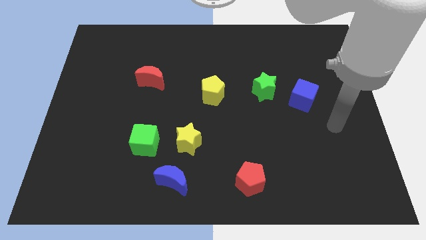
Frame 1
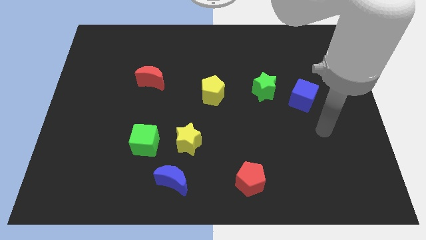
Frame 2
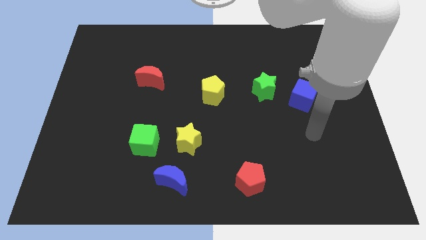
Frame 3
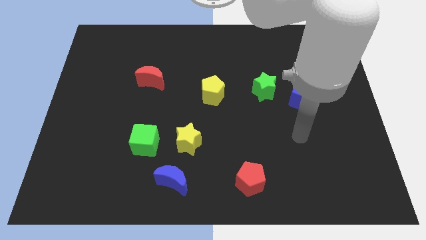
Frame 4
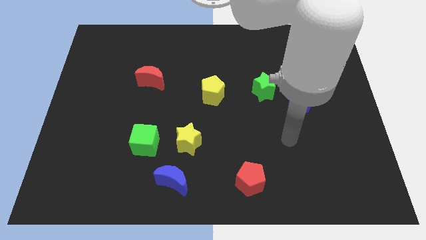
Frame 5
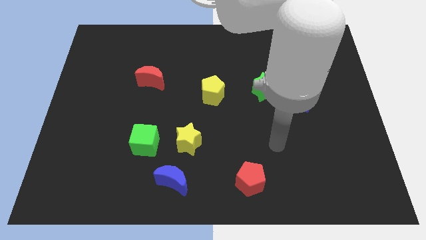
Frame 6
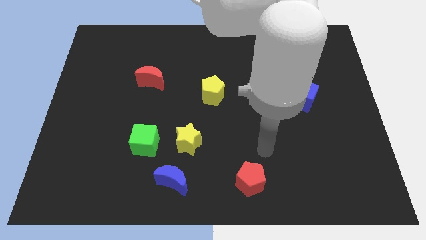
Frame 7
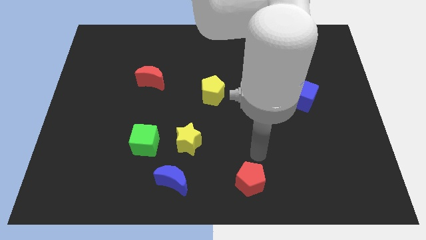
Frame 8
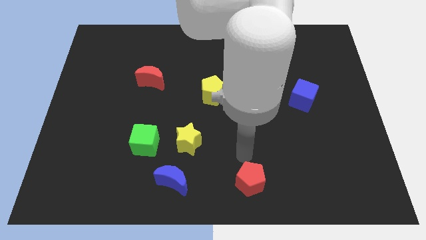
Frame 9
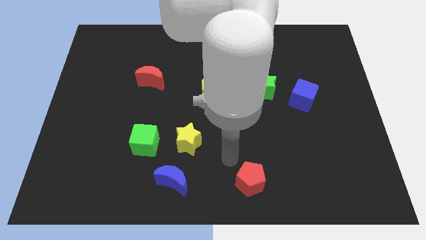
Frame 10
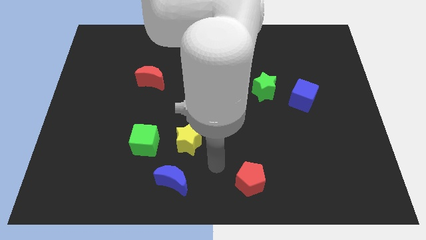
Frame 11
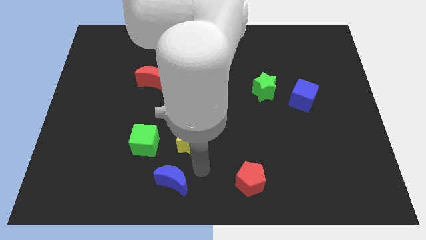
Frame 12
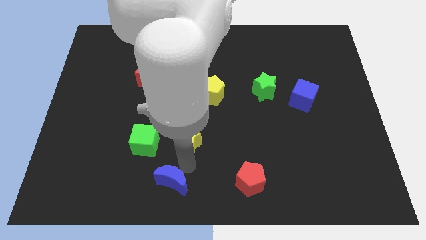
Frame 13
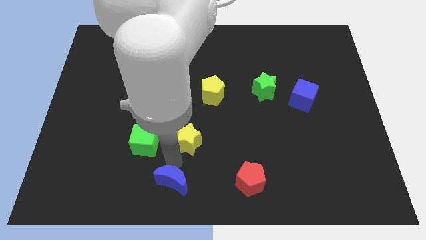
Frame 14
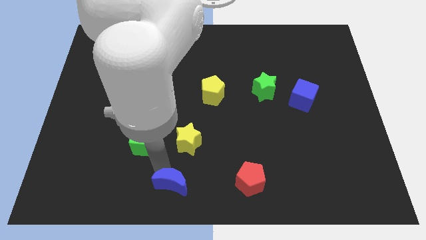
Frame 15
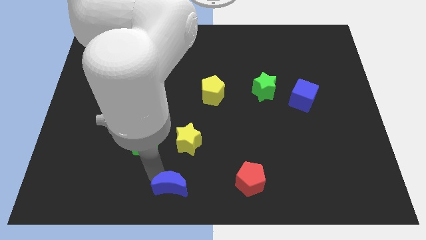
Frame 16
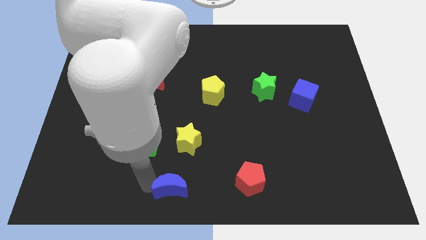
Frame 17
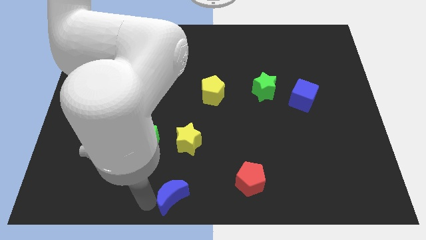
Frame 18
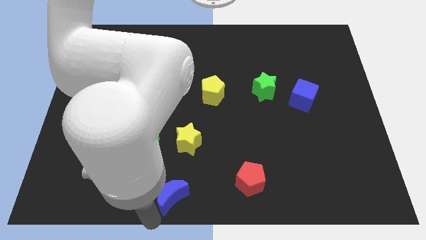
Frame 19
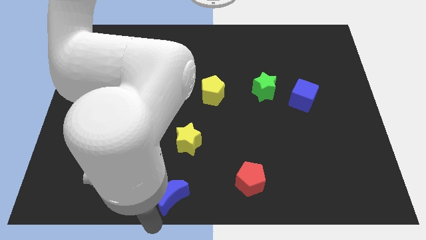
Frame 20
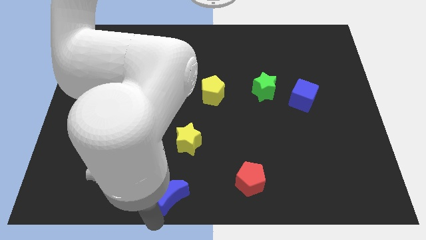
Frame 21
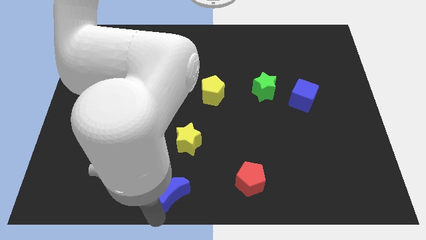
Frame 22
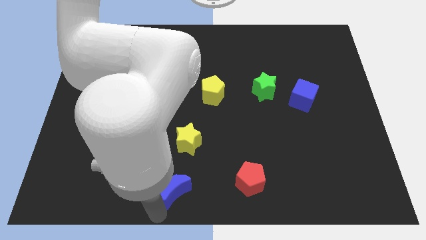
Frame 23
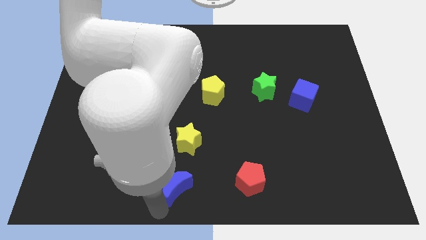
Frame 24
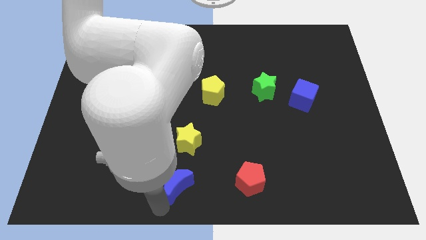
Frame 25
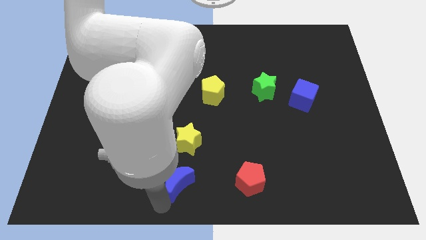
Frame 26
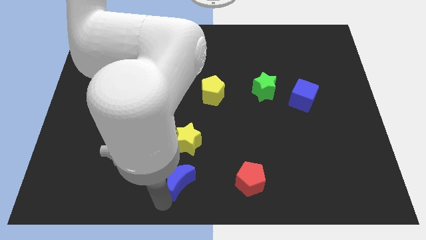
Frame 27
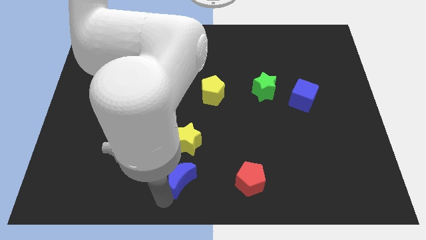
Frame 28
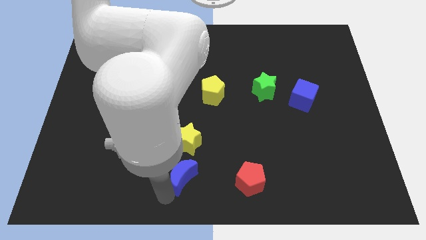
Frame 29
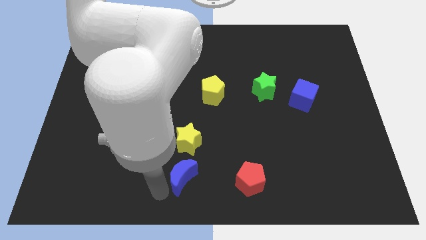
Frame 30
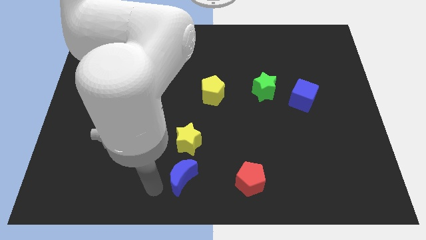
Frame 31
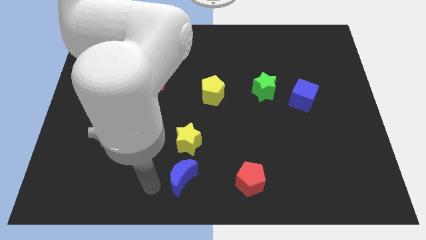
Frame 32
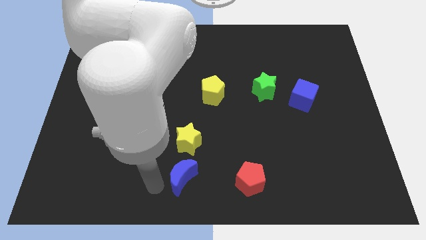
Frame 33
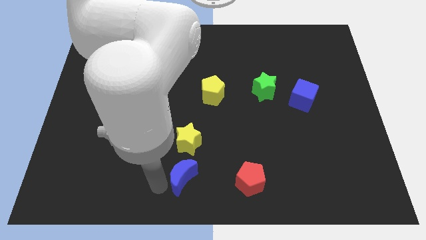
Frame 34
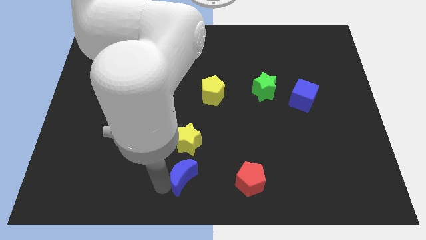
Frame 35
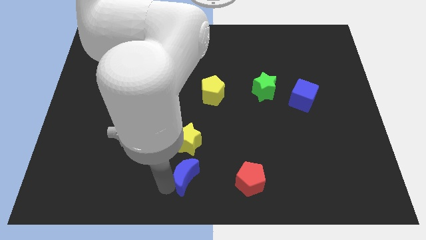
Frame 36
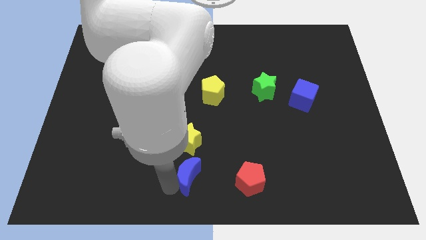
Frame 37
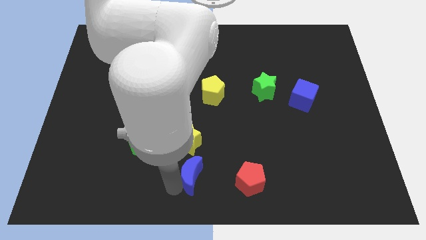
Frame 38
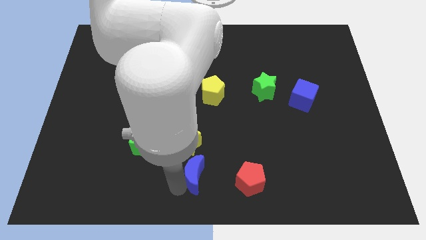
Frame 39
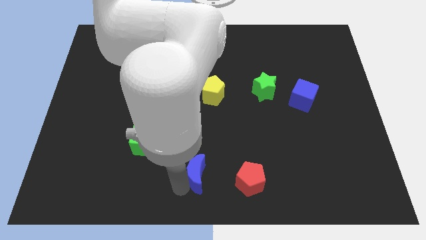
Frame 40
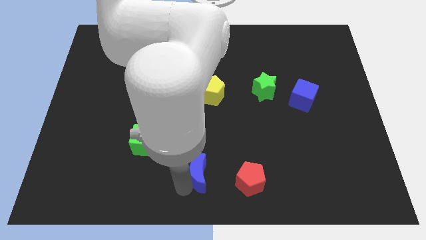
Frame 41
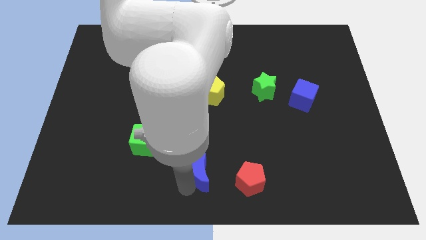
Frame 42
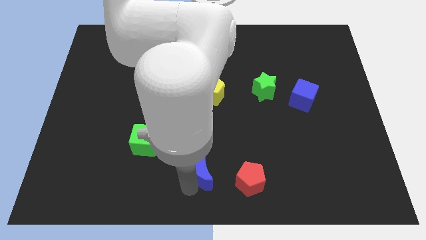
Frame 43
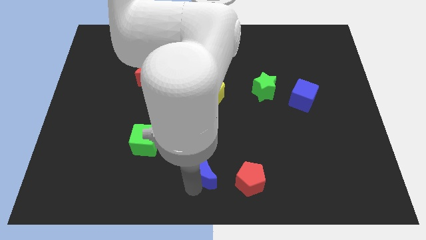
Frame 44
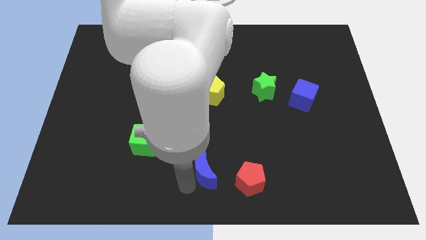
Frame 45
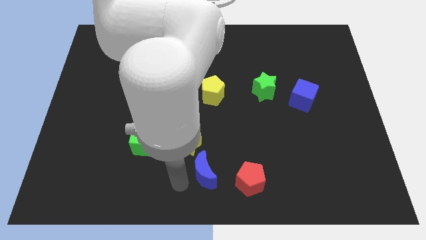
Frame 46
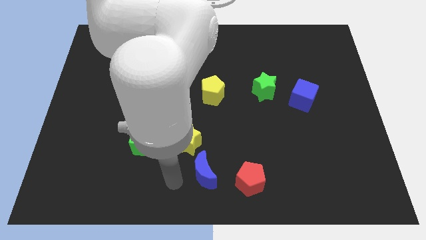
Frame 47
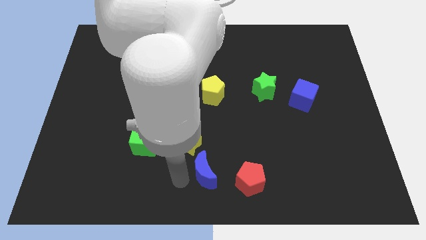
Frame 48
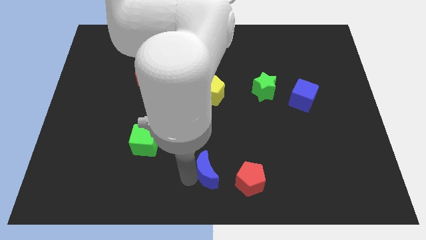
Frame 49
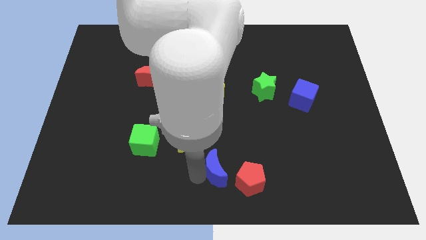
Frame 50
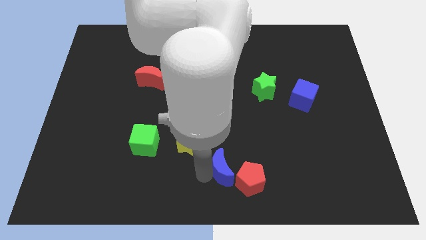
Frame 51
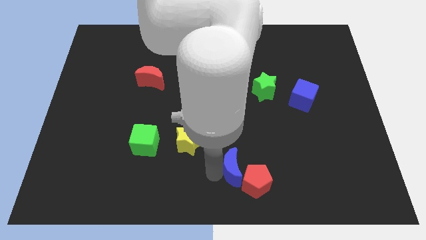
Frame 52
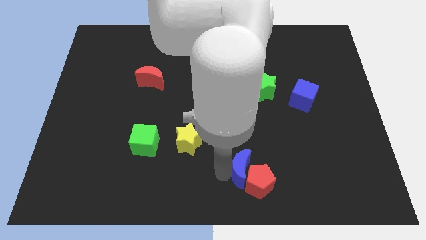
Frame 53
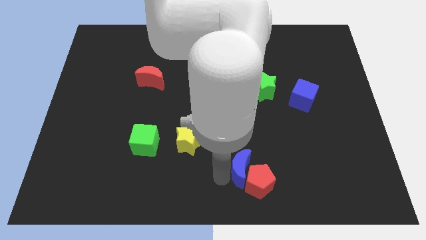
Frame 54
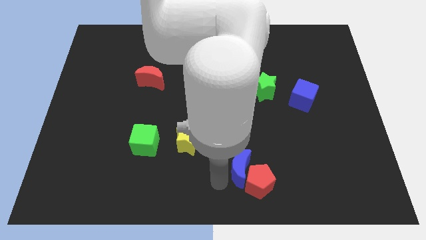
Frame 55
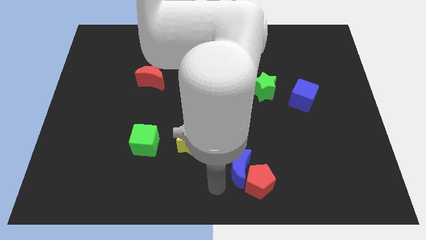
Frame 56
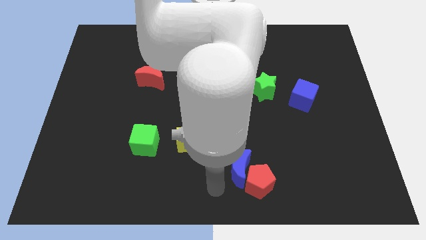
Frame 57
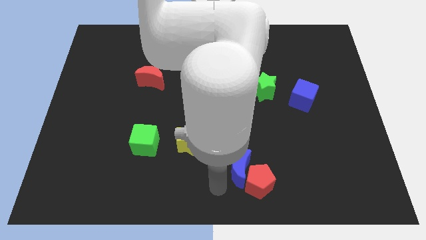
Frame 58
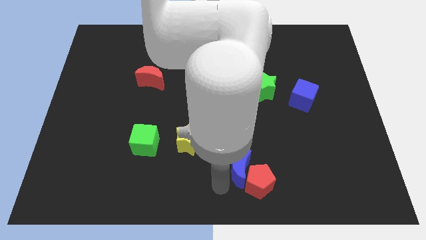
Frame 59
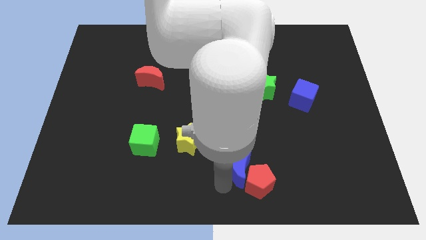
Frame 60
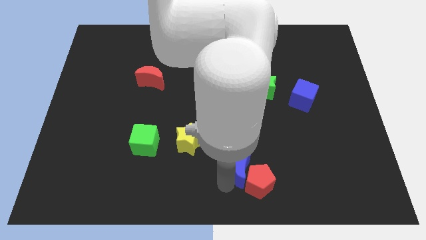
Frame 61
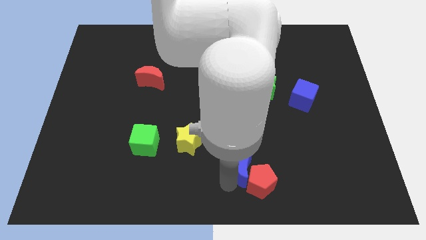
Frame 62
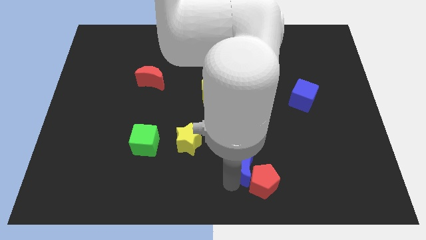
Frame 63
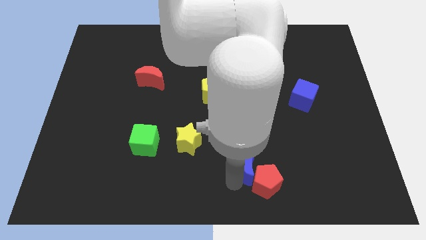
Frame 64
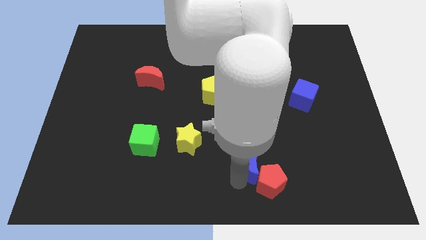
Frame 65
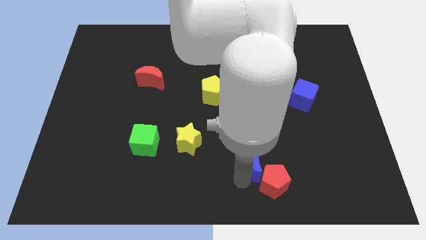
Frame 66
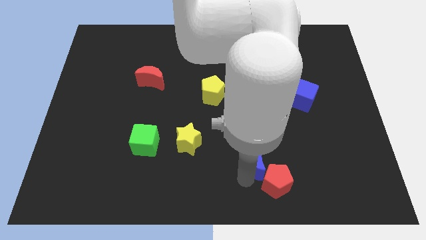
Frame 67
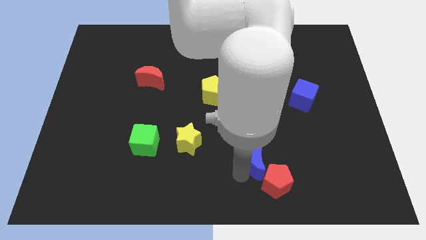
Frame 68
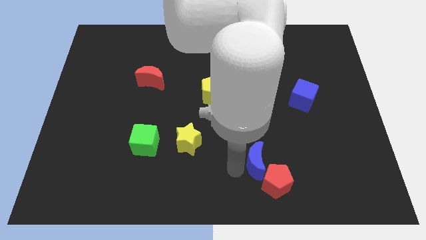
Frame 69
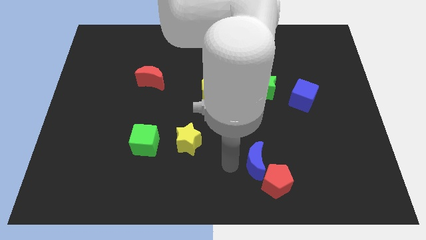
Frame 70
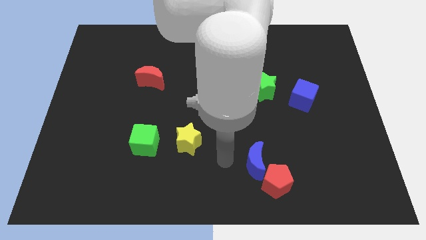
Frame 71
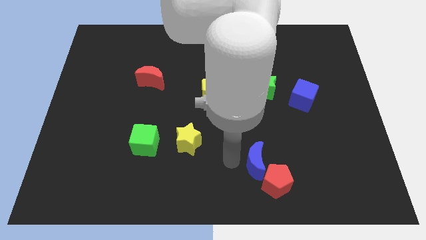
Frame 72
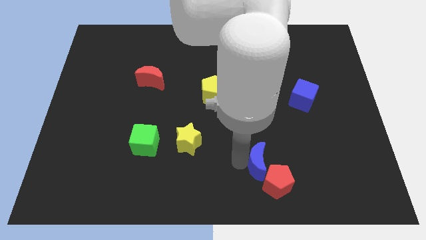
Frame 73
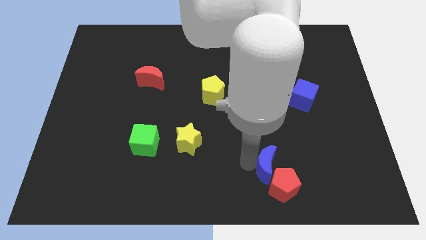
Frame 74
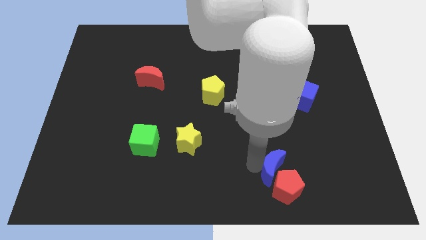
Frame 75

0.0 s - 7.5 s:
slide the blue moon right

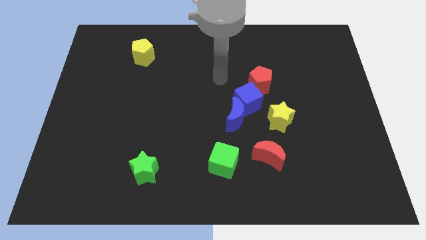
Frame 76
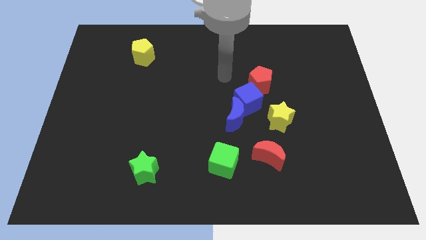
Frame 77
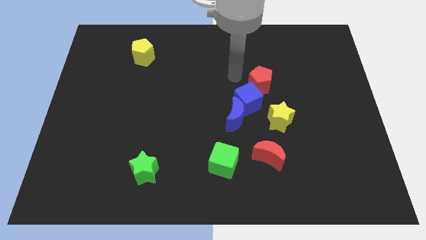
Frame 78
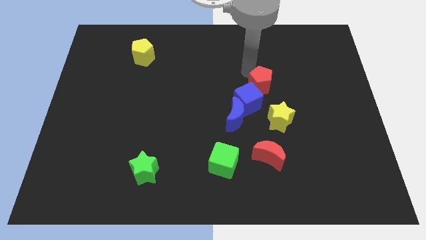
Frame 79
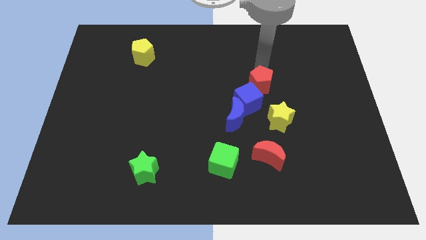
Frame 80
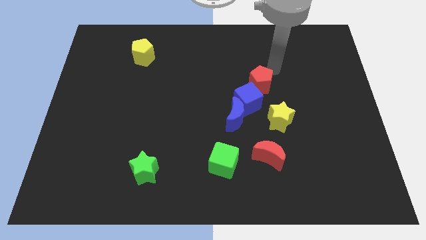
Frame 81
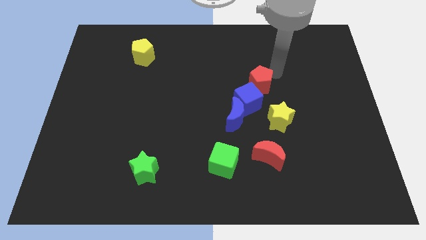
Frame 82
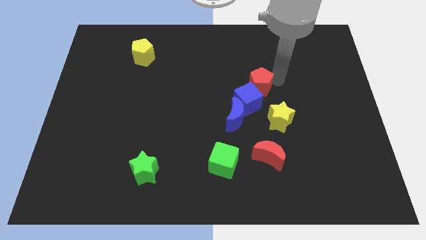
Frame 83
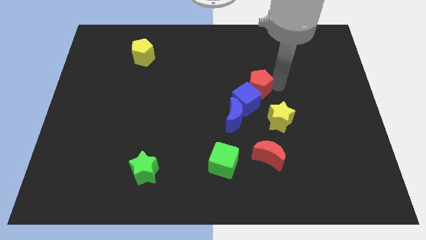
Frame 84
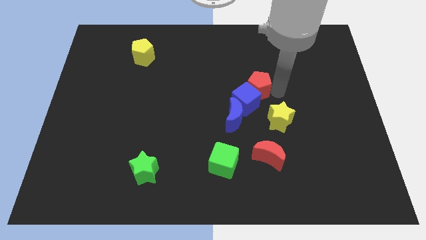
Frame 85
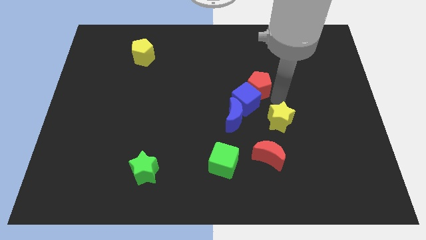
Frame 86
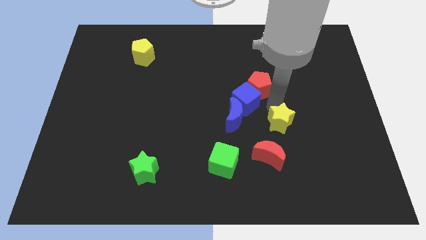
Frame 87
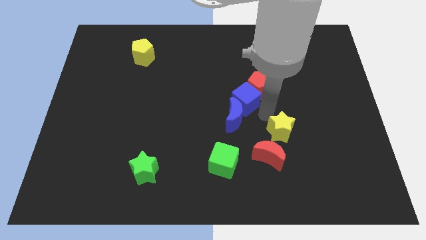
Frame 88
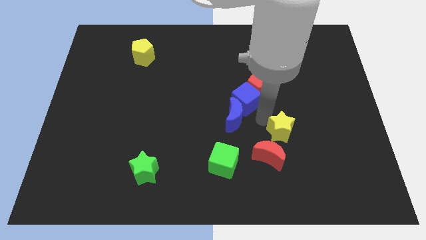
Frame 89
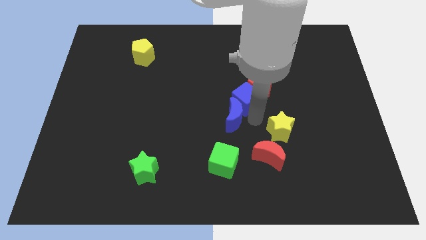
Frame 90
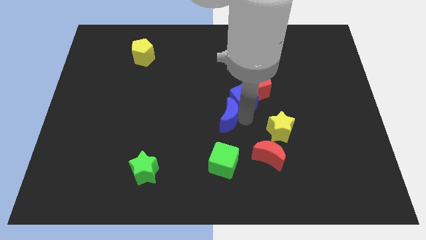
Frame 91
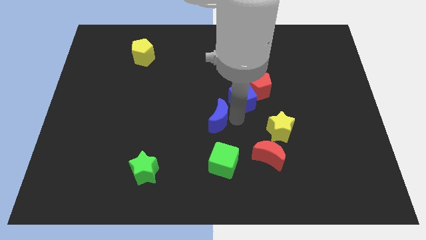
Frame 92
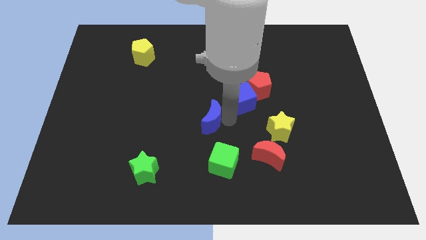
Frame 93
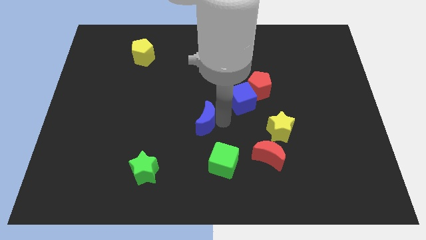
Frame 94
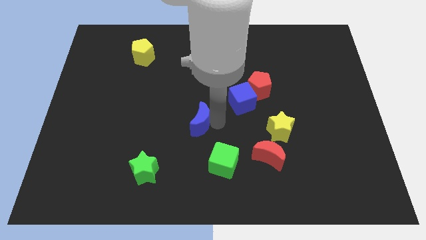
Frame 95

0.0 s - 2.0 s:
push the blue moon to the left slightly
